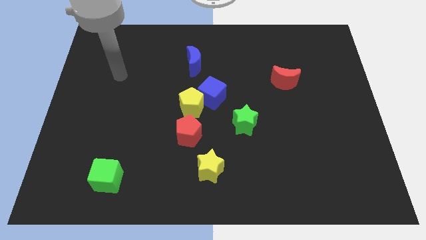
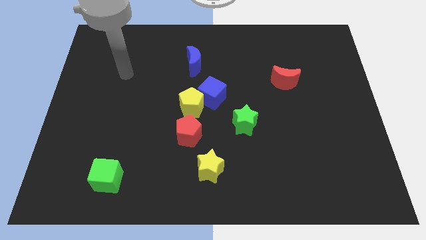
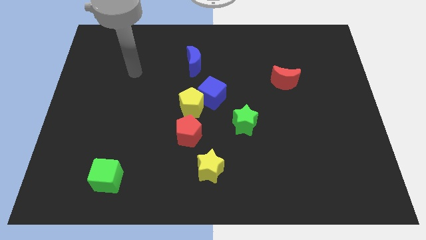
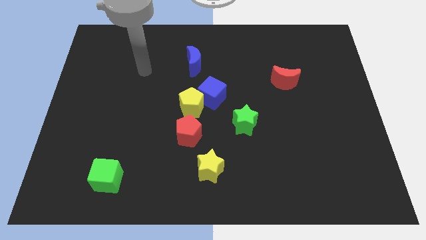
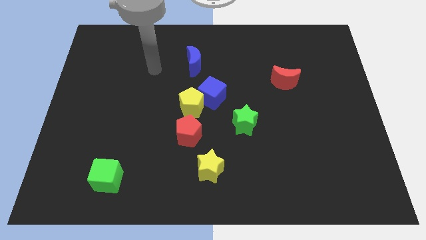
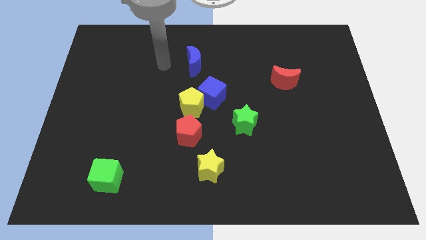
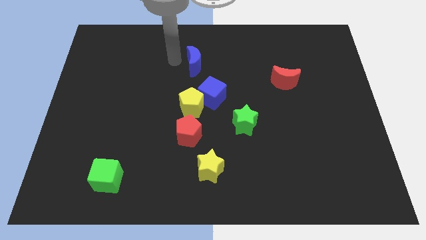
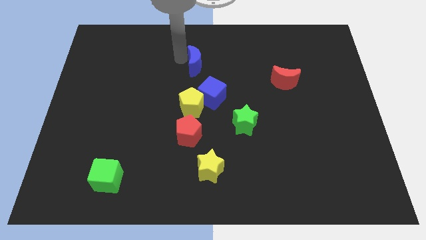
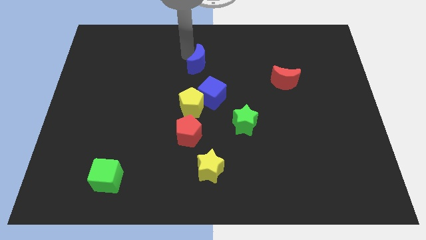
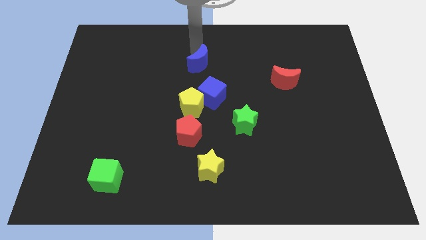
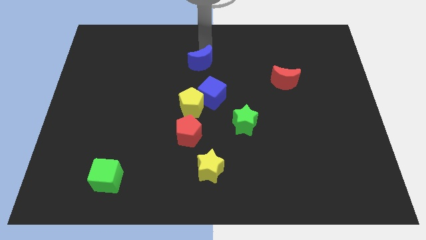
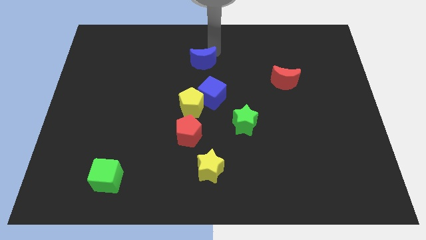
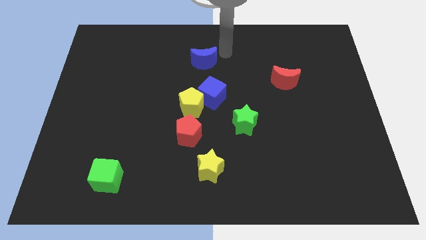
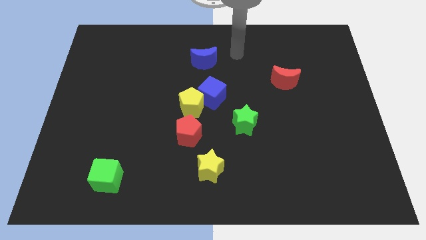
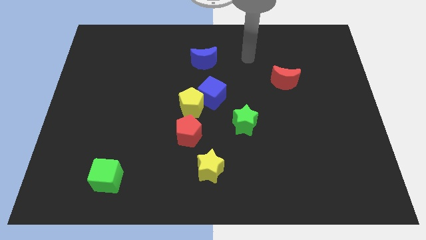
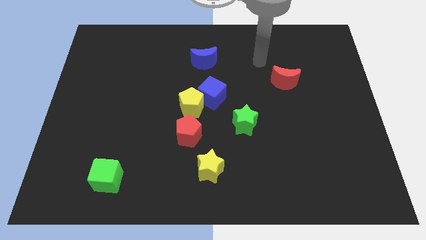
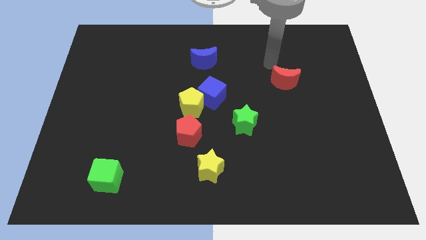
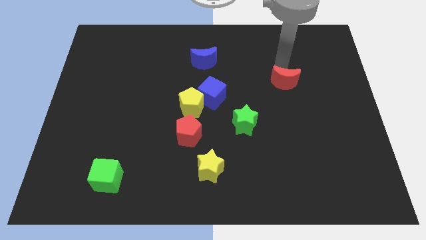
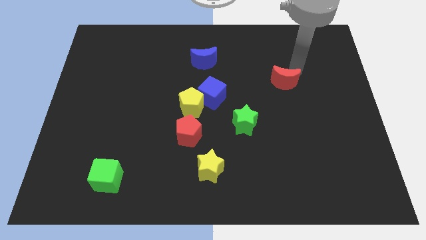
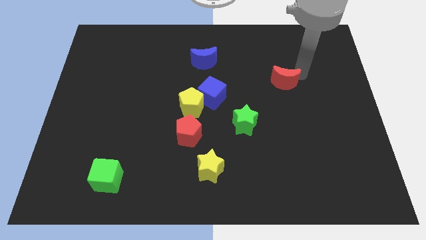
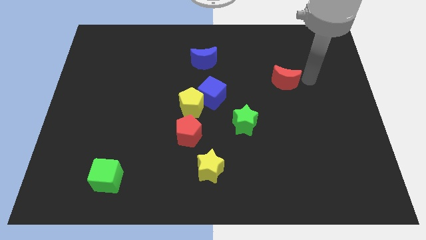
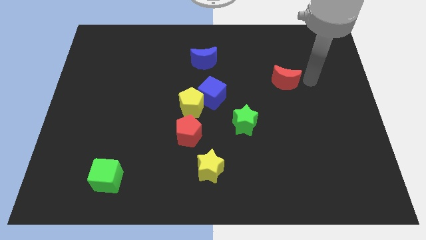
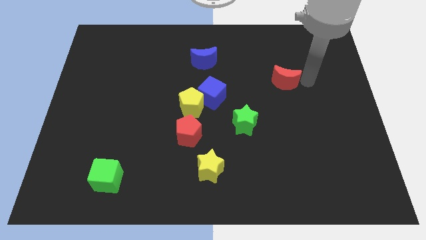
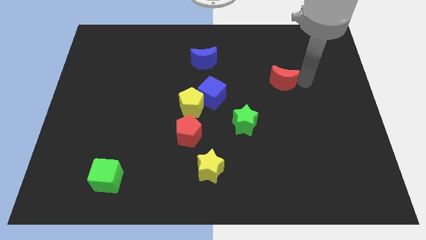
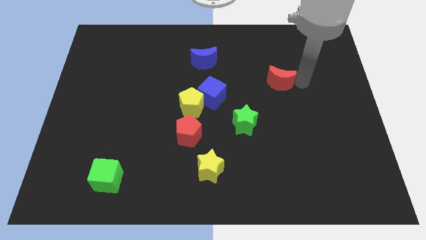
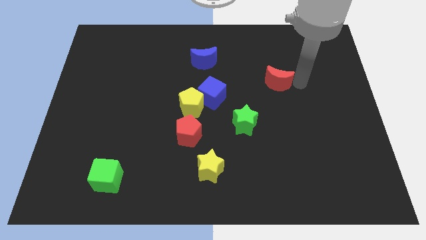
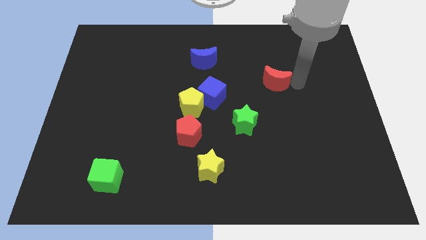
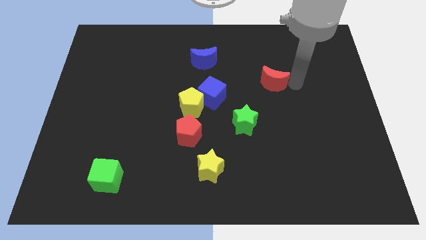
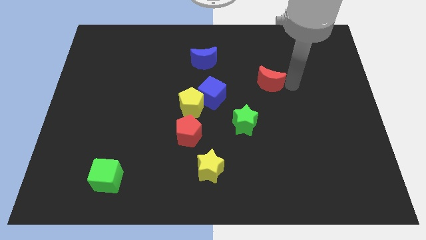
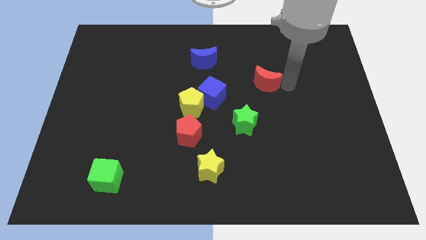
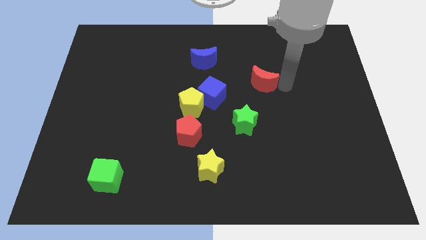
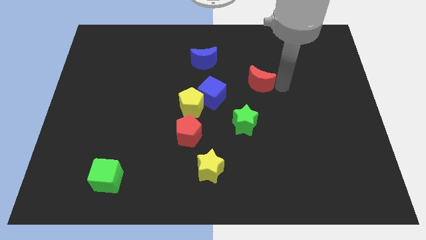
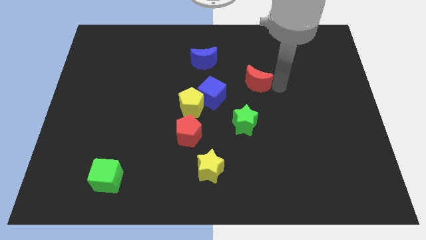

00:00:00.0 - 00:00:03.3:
slide the red moon left a little

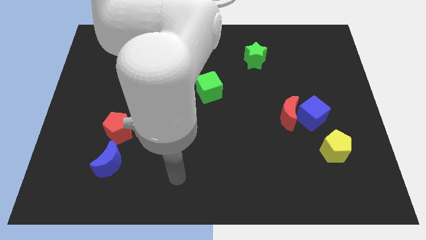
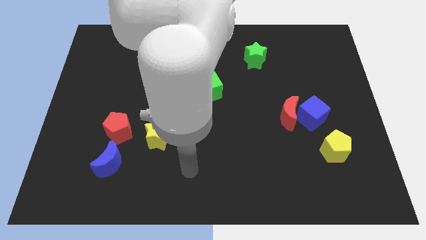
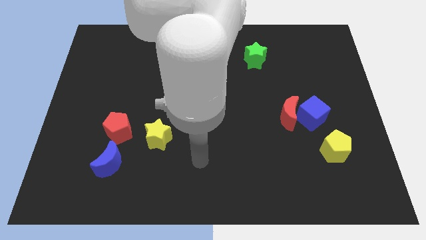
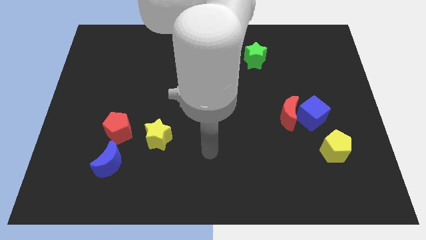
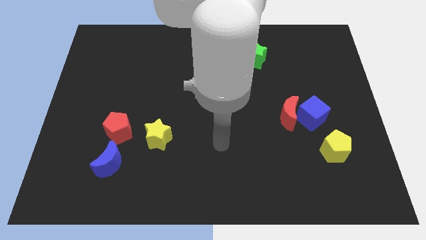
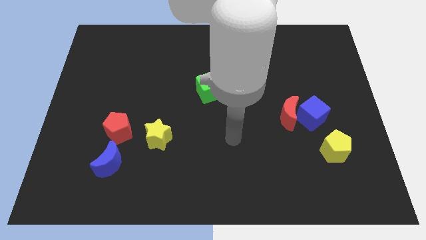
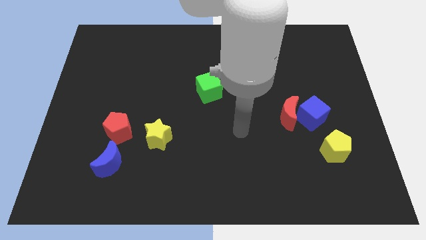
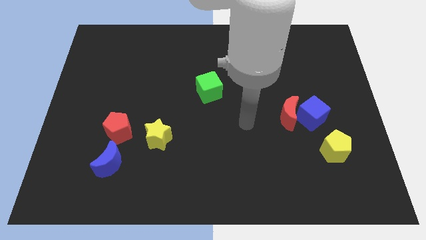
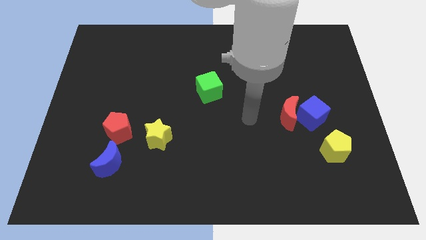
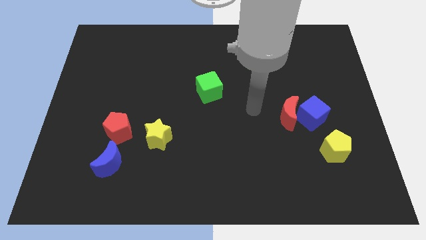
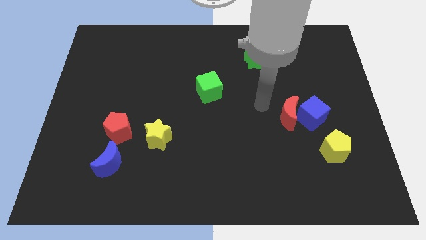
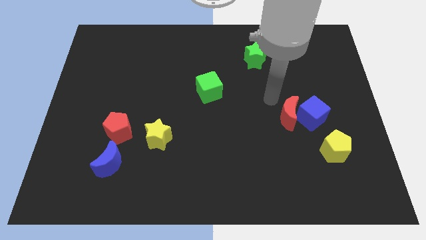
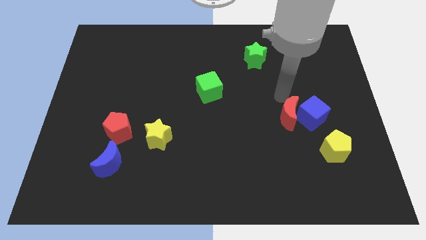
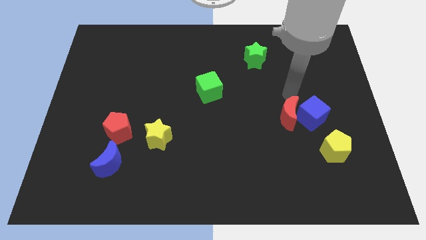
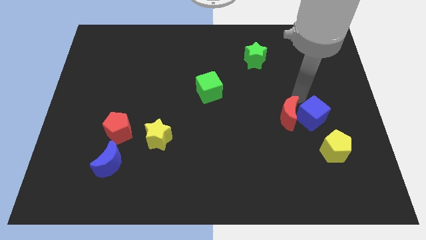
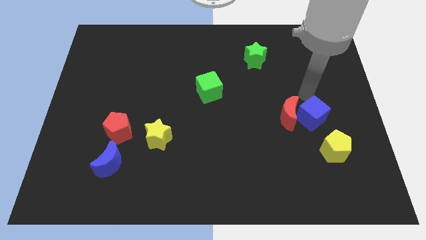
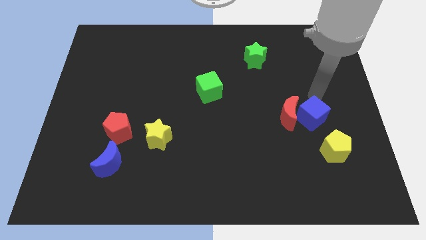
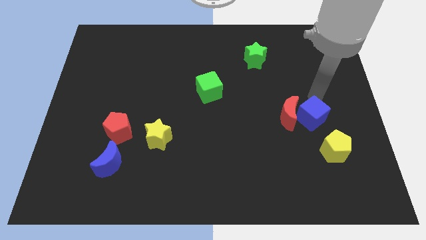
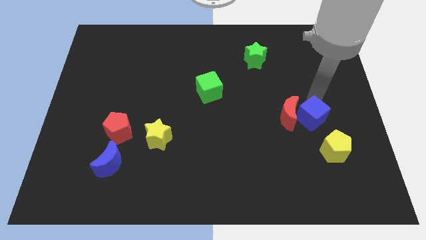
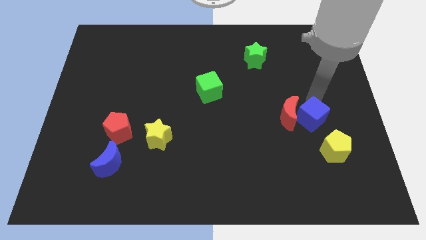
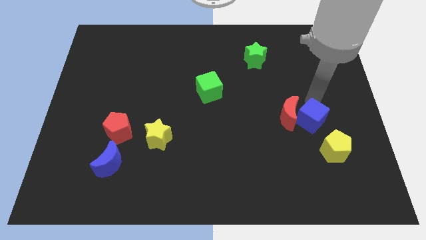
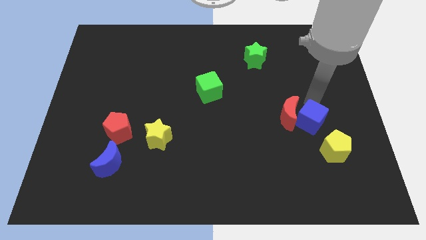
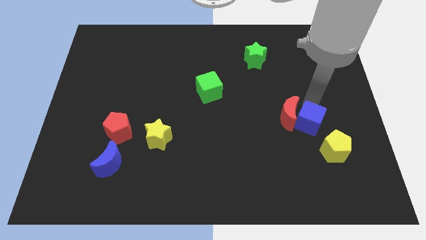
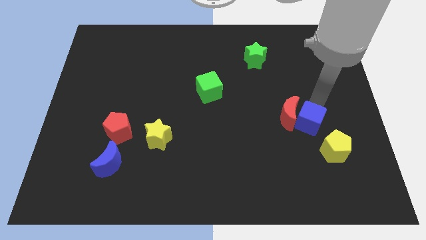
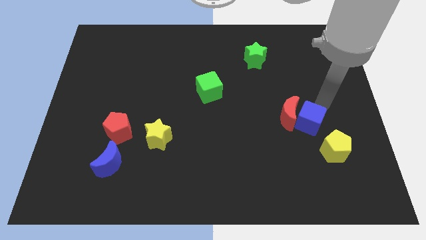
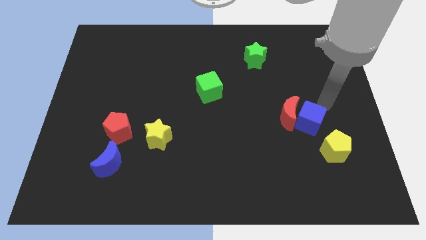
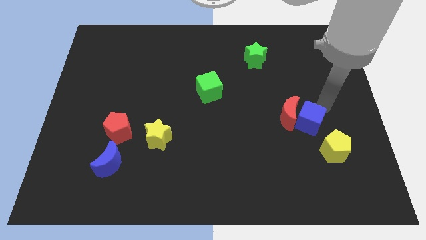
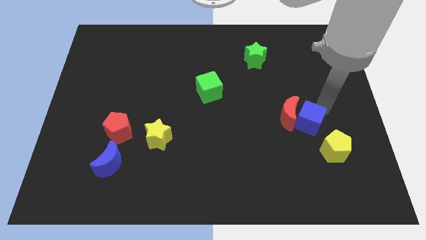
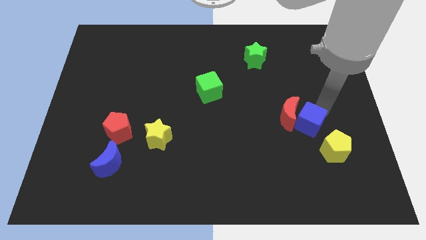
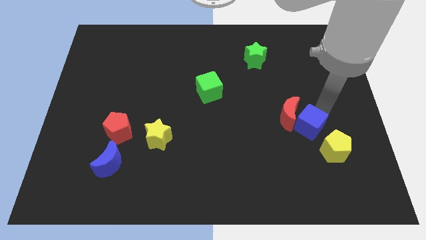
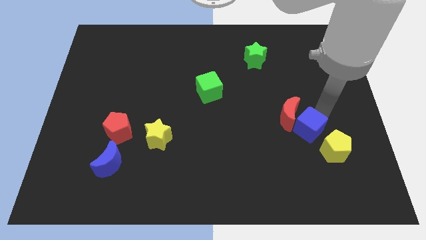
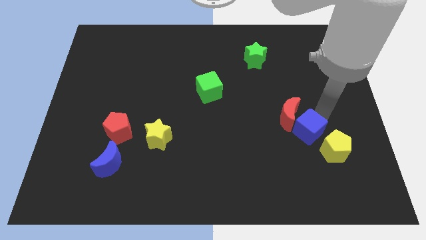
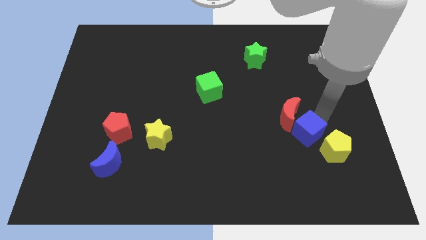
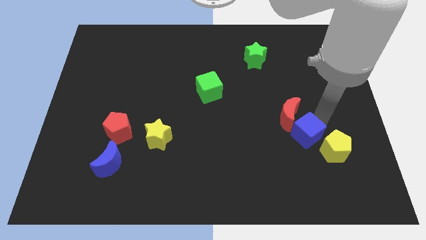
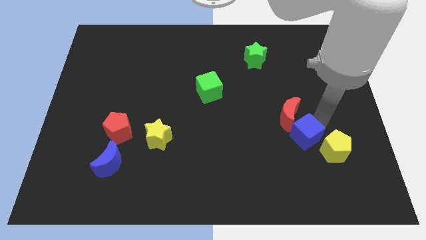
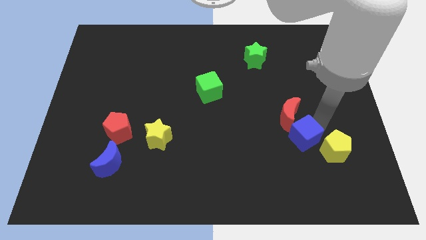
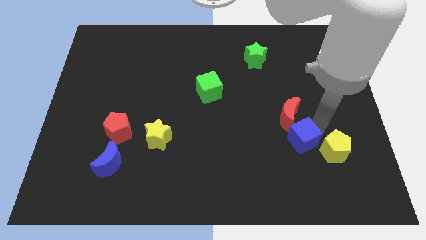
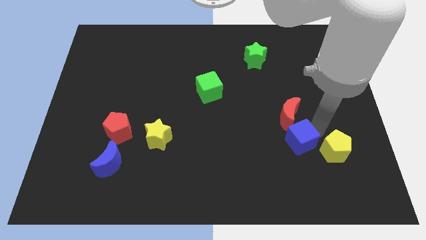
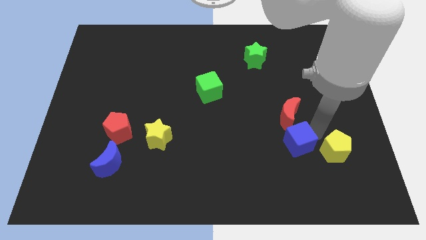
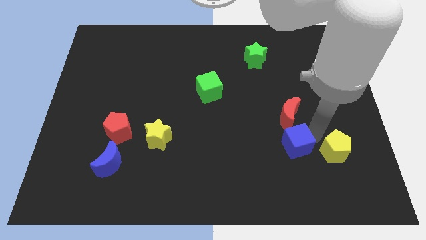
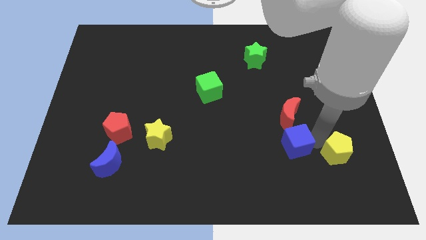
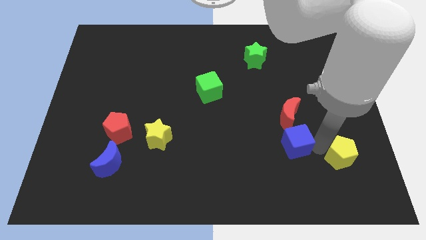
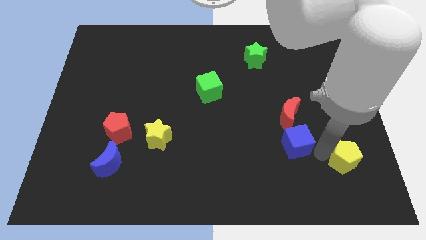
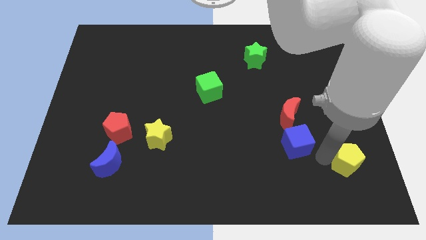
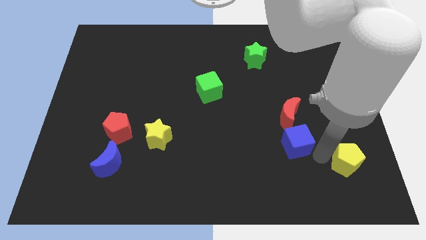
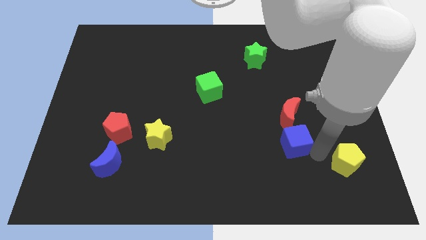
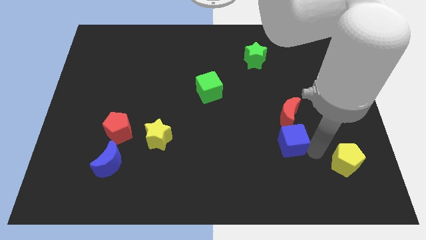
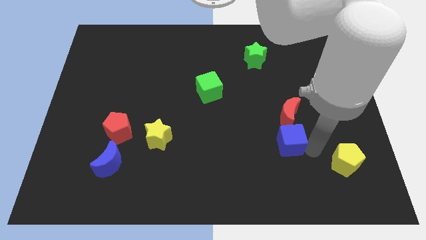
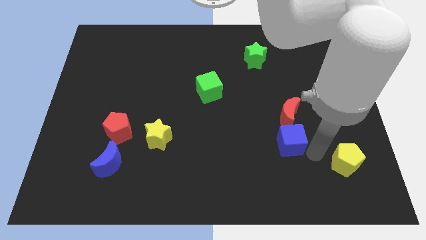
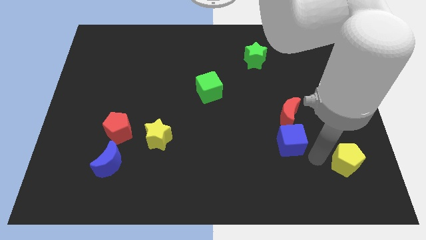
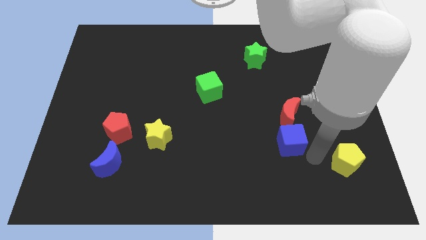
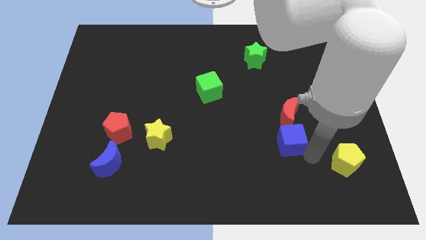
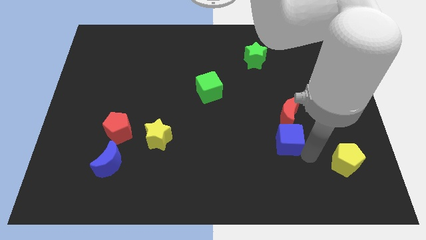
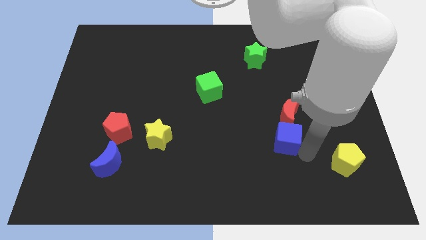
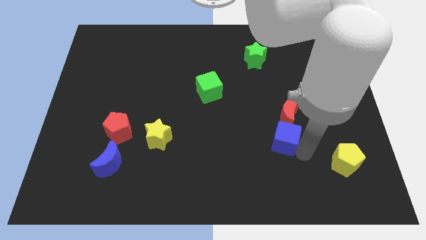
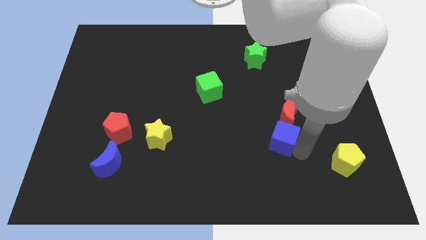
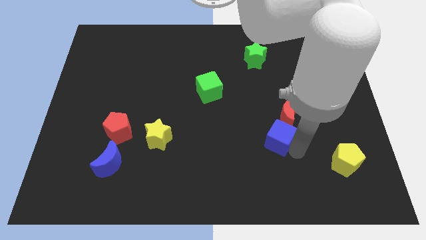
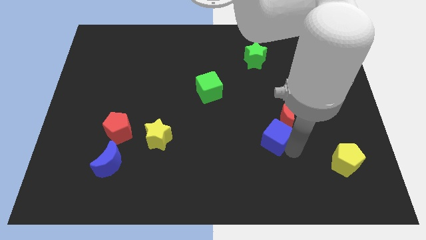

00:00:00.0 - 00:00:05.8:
slide the blue cube a bit left
